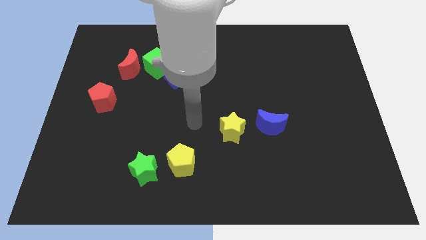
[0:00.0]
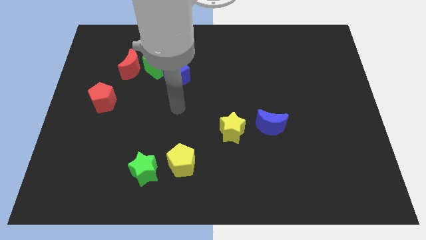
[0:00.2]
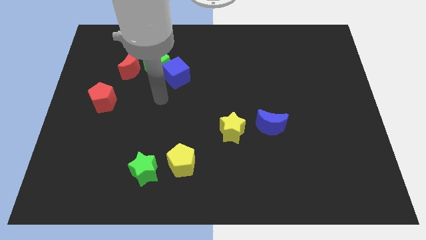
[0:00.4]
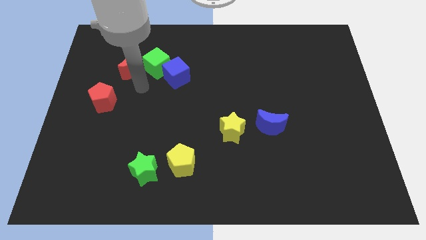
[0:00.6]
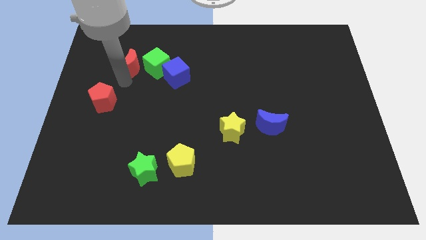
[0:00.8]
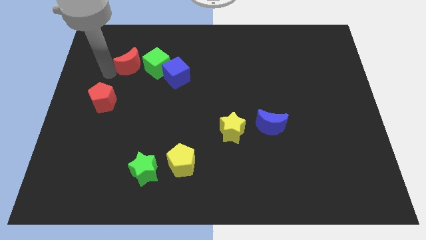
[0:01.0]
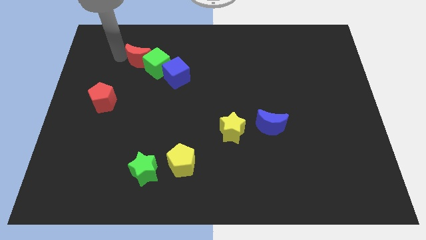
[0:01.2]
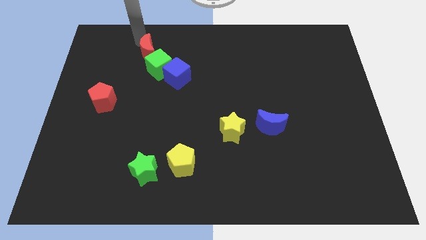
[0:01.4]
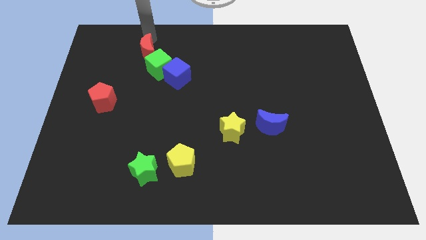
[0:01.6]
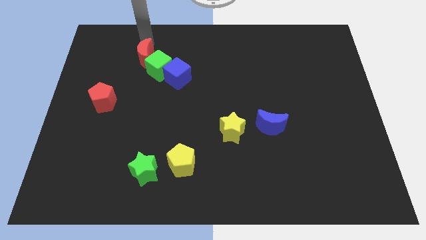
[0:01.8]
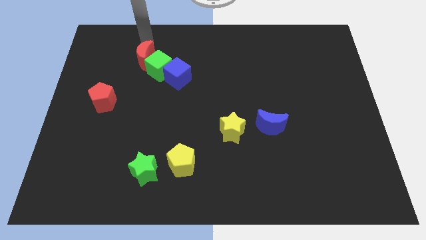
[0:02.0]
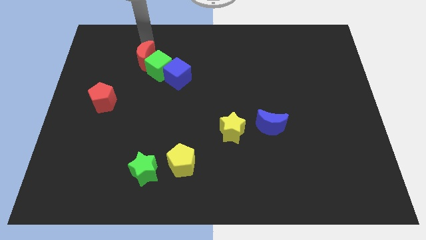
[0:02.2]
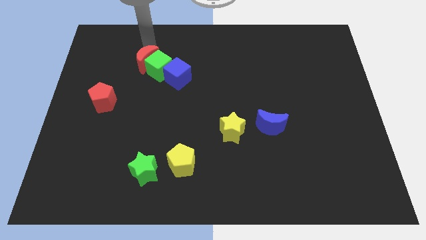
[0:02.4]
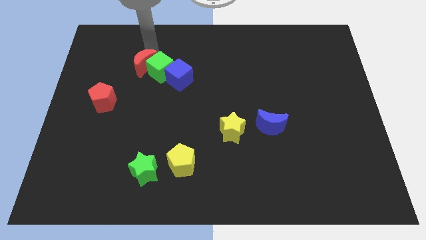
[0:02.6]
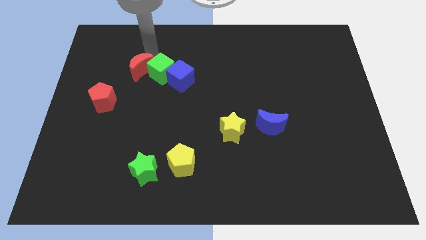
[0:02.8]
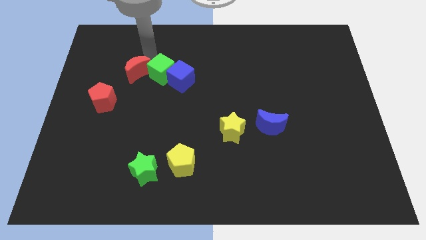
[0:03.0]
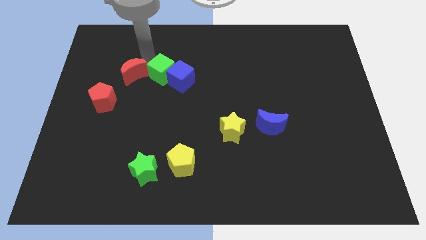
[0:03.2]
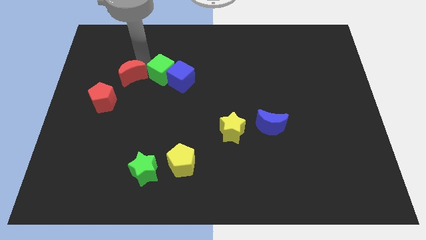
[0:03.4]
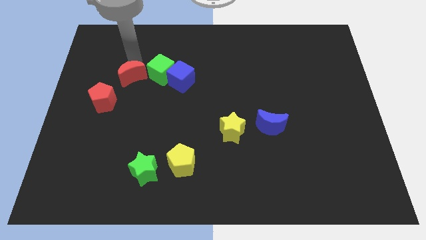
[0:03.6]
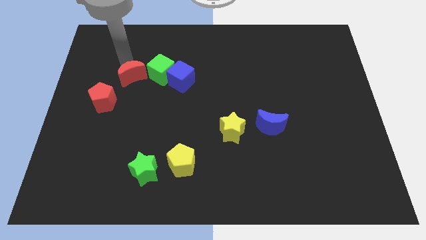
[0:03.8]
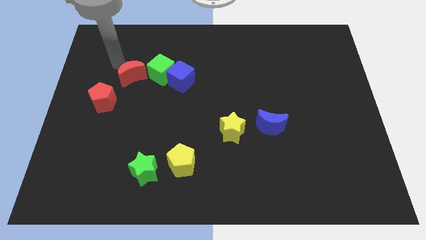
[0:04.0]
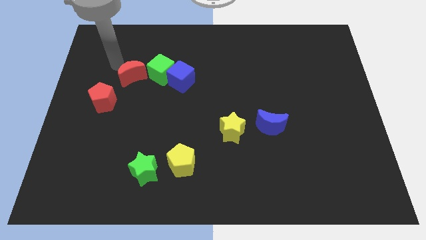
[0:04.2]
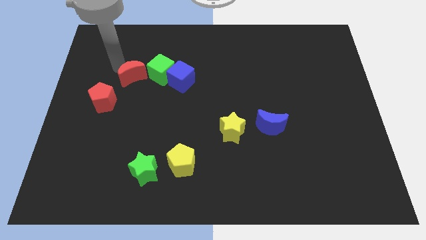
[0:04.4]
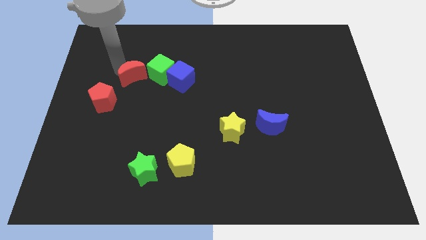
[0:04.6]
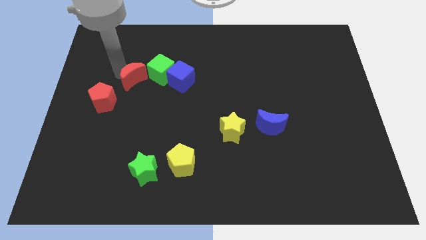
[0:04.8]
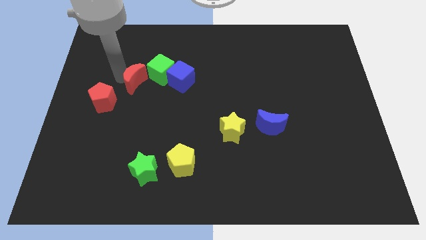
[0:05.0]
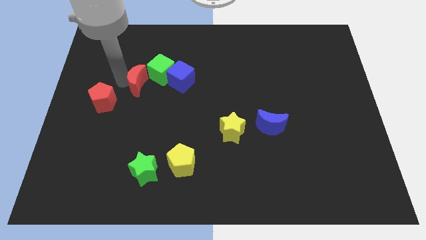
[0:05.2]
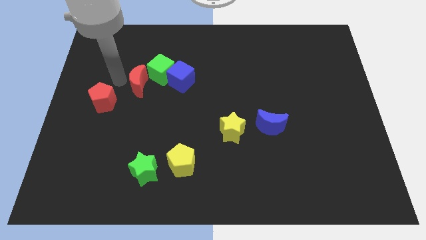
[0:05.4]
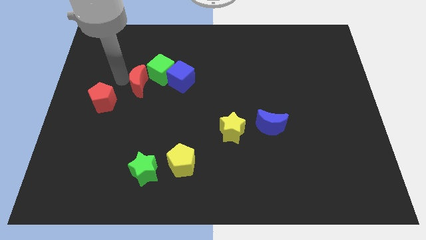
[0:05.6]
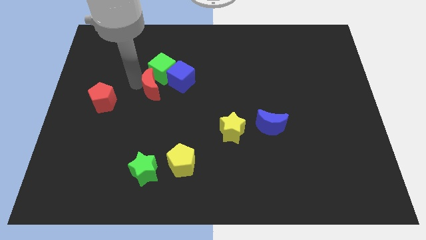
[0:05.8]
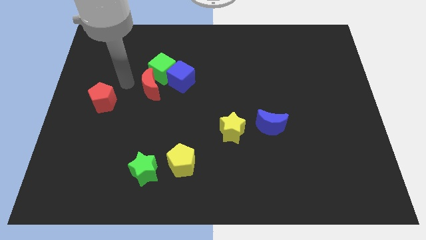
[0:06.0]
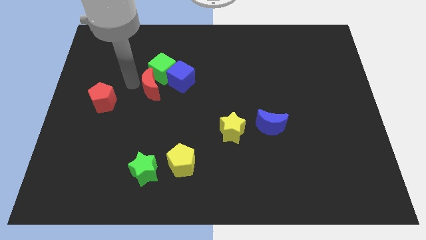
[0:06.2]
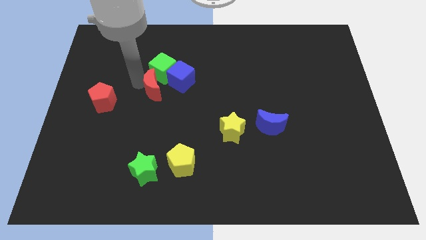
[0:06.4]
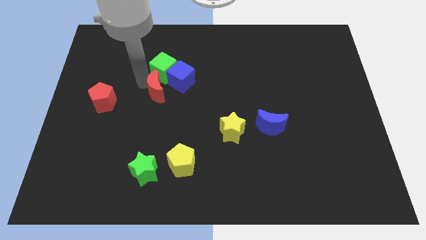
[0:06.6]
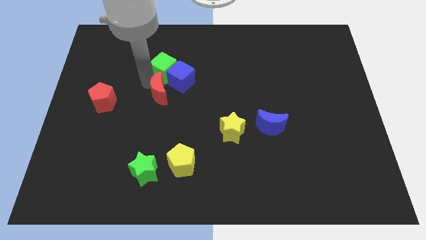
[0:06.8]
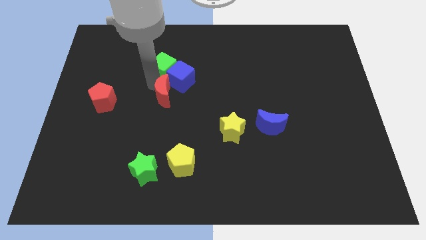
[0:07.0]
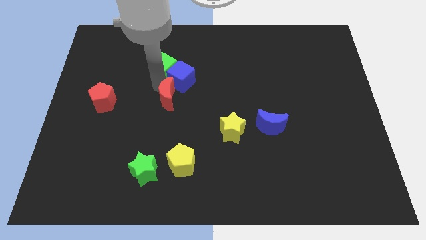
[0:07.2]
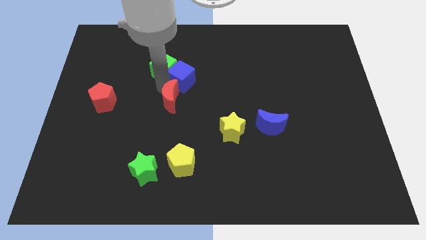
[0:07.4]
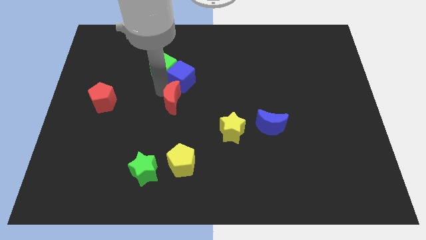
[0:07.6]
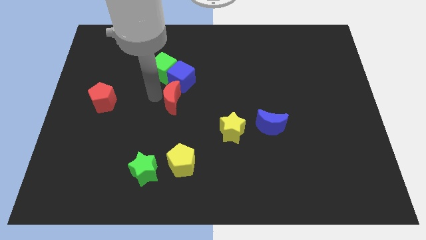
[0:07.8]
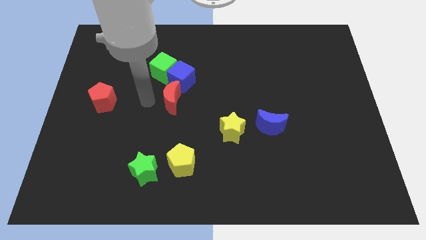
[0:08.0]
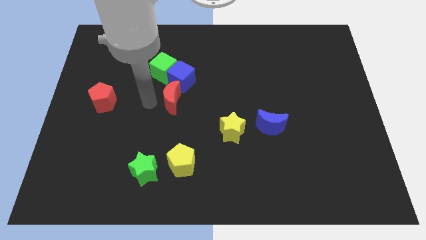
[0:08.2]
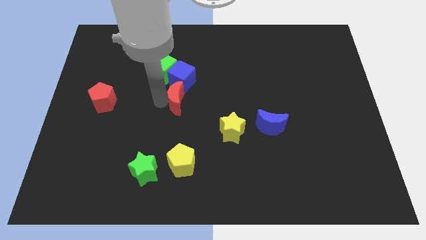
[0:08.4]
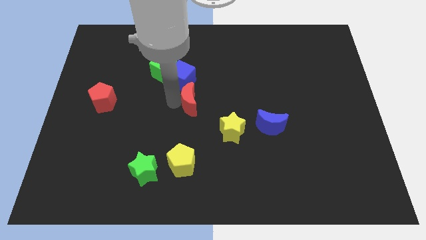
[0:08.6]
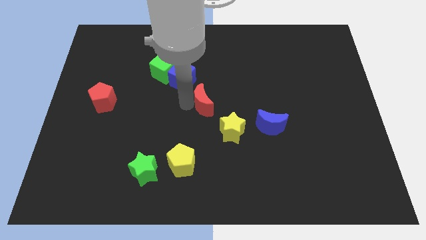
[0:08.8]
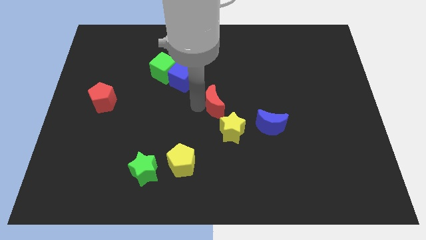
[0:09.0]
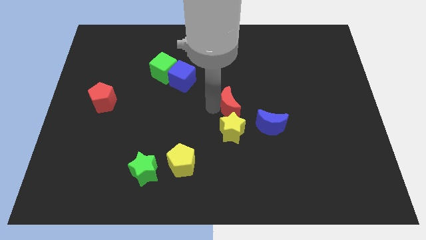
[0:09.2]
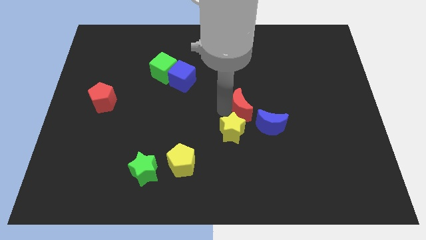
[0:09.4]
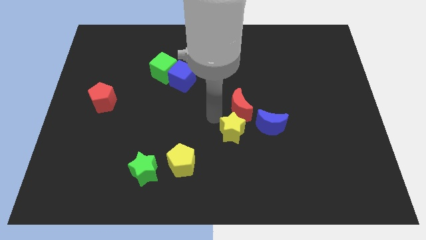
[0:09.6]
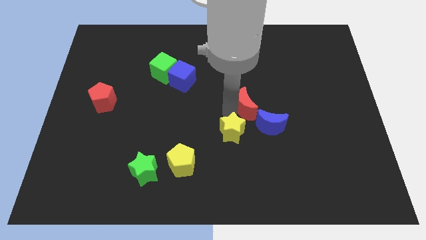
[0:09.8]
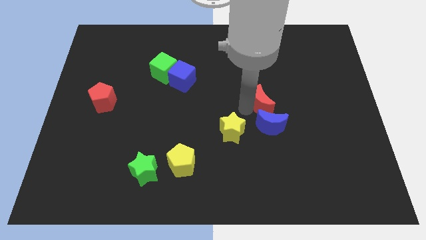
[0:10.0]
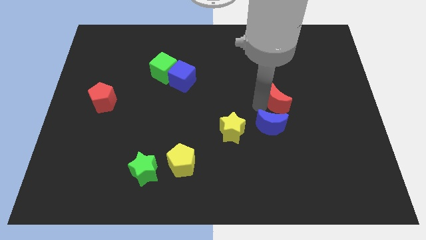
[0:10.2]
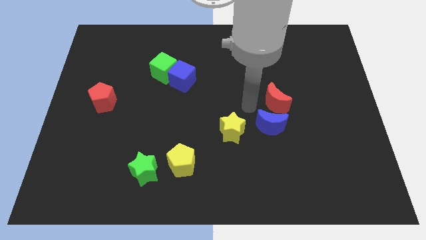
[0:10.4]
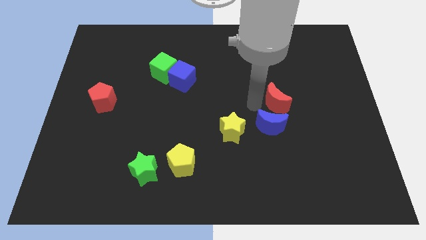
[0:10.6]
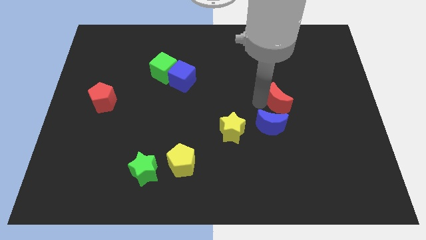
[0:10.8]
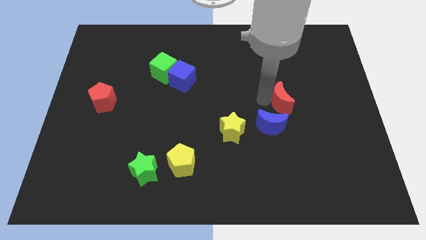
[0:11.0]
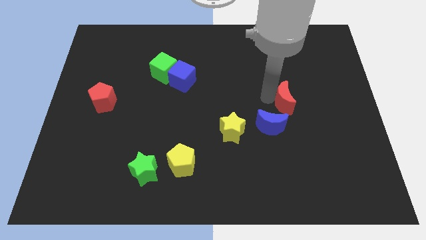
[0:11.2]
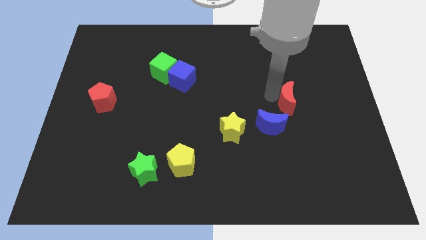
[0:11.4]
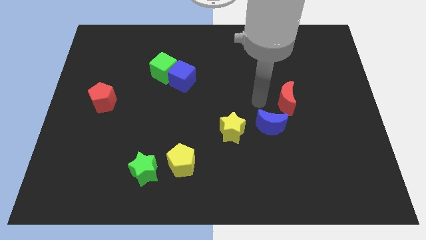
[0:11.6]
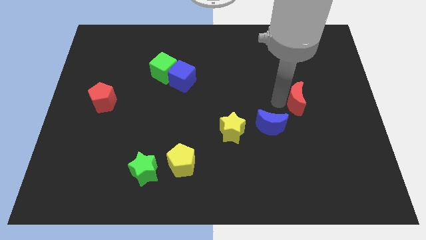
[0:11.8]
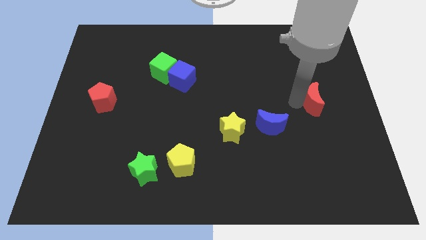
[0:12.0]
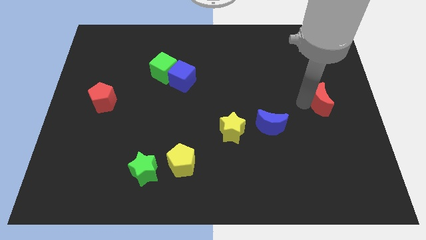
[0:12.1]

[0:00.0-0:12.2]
push the red moon to the right side of the board

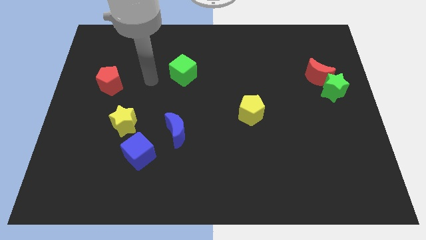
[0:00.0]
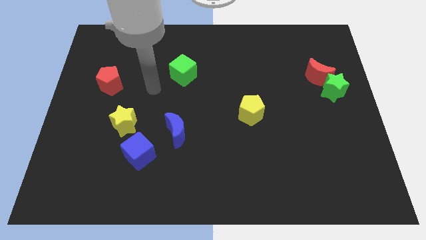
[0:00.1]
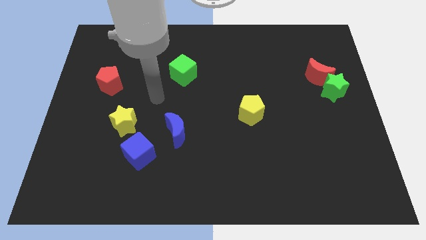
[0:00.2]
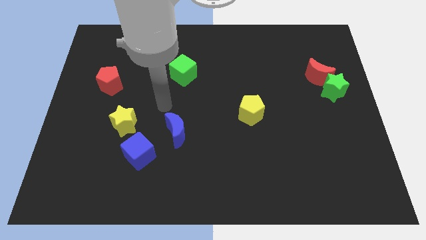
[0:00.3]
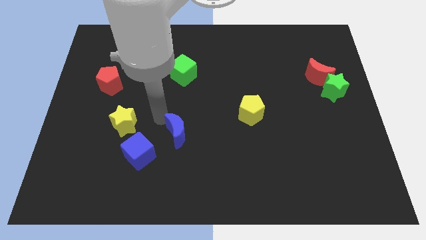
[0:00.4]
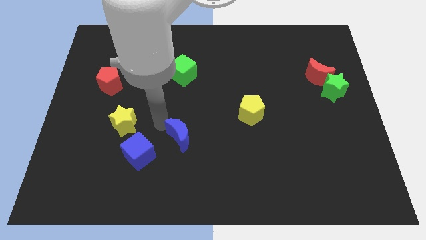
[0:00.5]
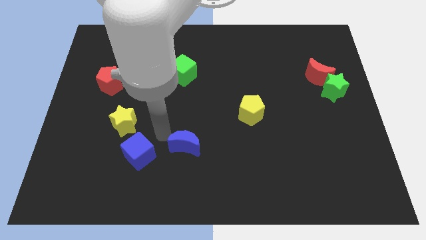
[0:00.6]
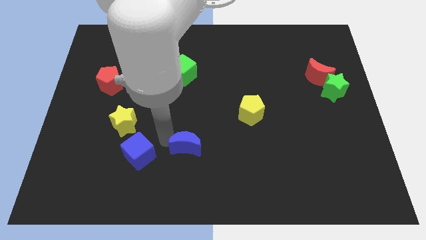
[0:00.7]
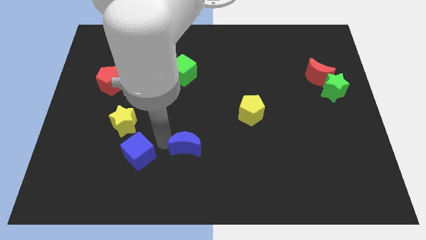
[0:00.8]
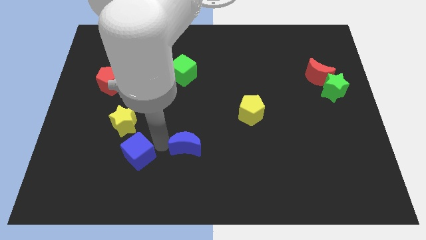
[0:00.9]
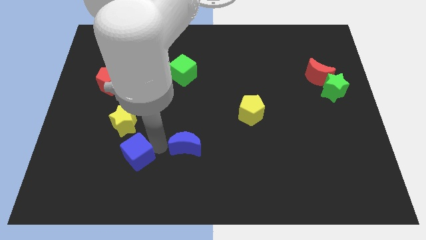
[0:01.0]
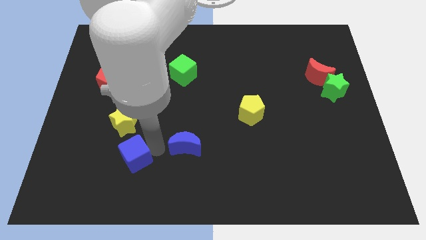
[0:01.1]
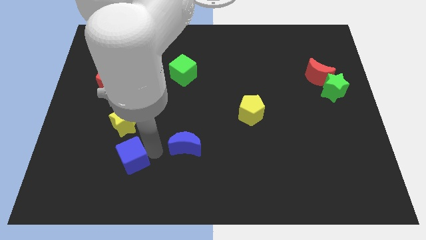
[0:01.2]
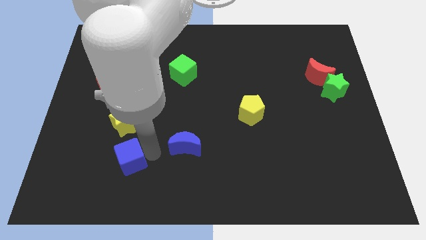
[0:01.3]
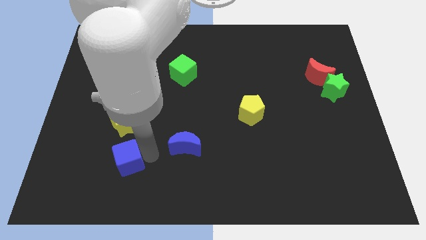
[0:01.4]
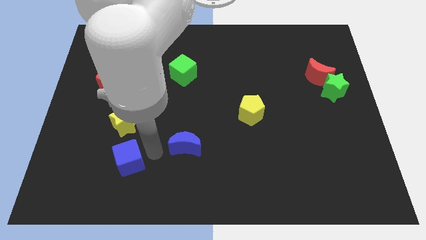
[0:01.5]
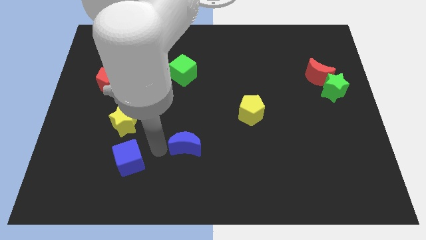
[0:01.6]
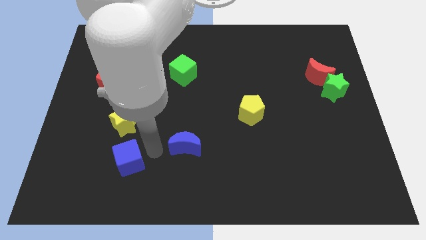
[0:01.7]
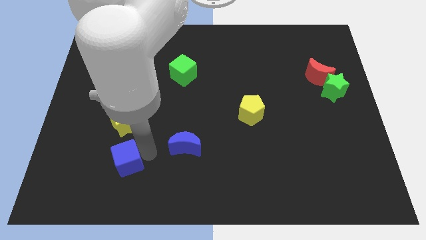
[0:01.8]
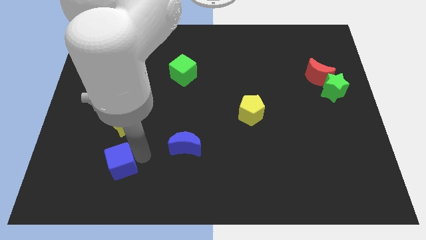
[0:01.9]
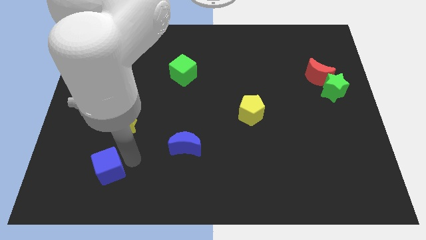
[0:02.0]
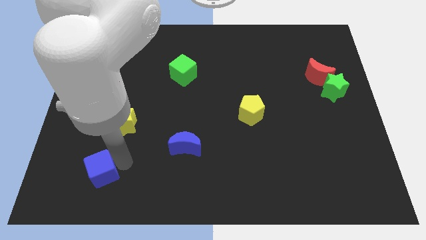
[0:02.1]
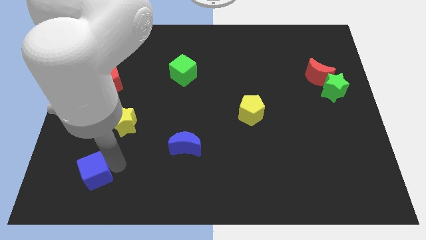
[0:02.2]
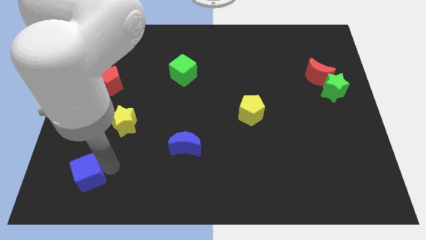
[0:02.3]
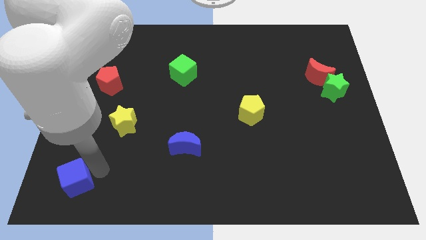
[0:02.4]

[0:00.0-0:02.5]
put the blue cube to the bottom left corner
